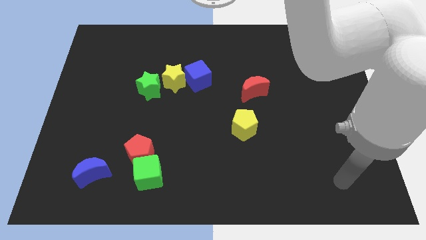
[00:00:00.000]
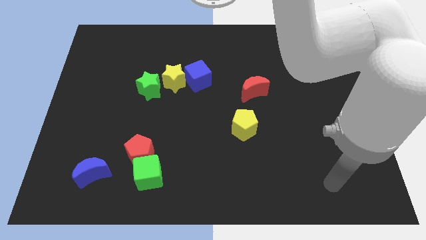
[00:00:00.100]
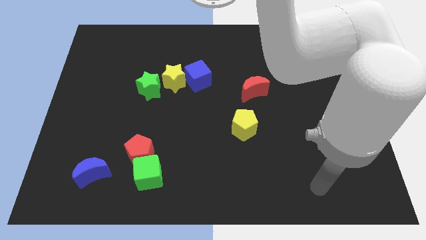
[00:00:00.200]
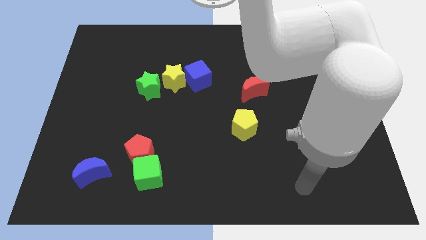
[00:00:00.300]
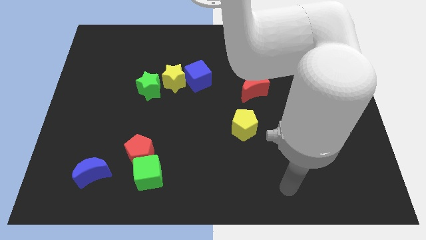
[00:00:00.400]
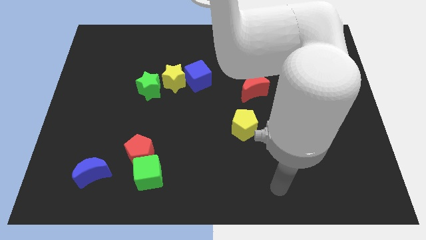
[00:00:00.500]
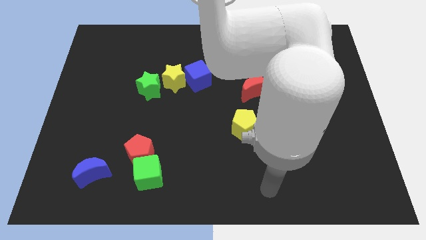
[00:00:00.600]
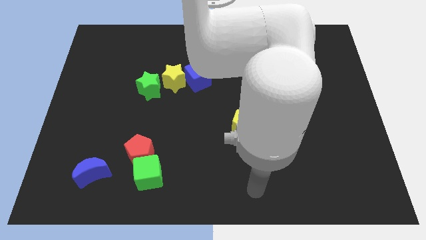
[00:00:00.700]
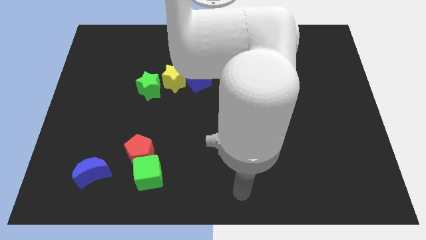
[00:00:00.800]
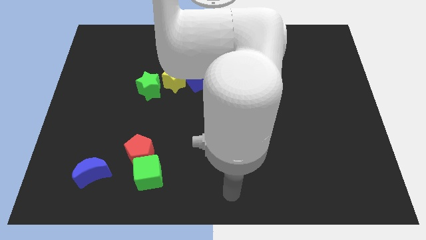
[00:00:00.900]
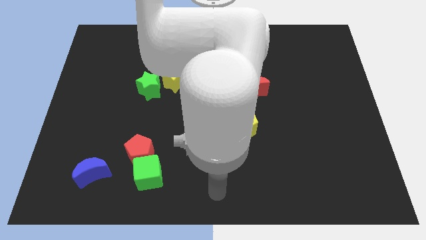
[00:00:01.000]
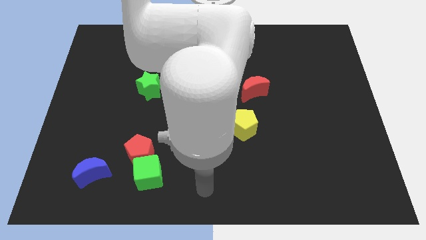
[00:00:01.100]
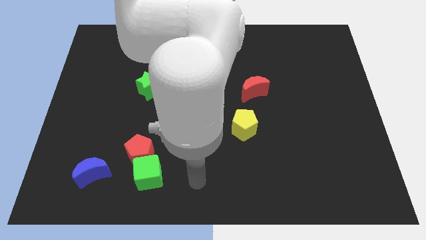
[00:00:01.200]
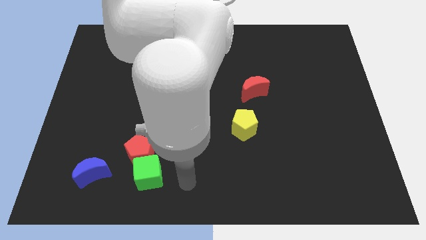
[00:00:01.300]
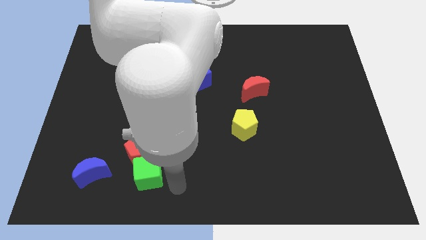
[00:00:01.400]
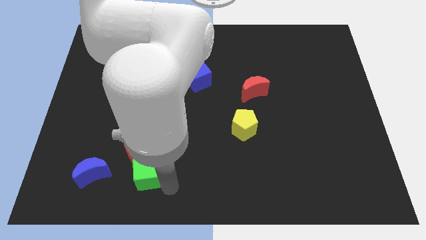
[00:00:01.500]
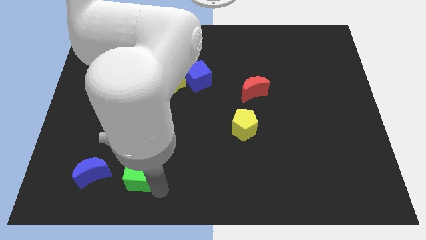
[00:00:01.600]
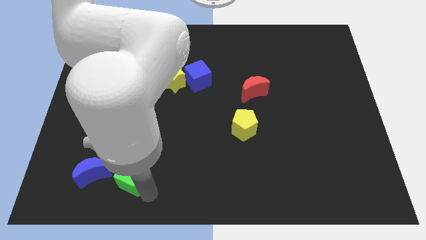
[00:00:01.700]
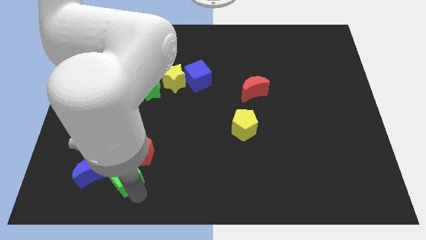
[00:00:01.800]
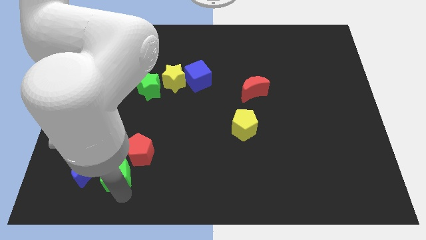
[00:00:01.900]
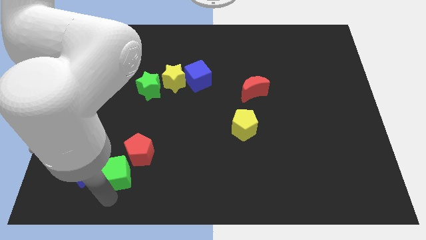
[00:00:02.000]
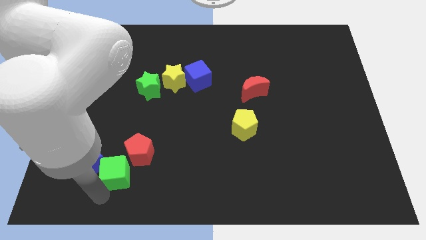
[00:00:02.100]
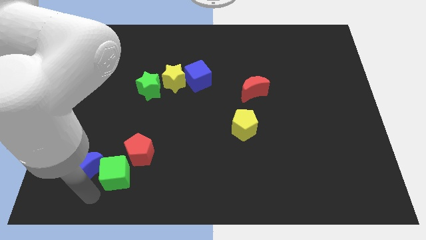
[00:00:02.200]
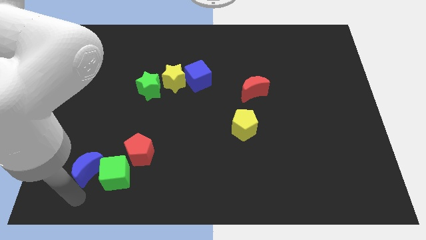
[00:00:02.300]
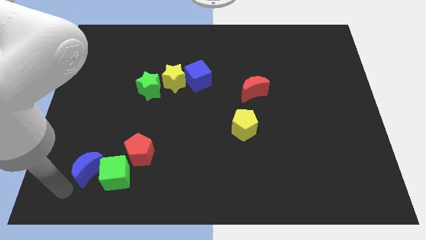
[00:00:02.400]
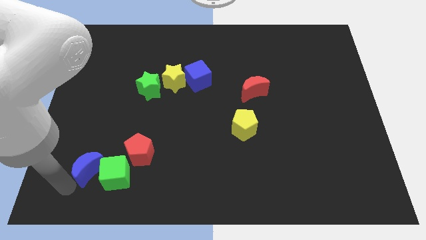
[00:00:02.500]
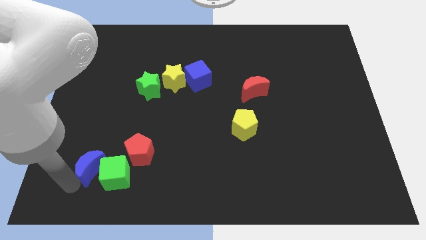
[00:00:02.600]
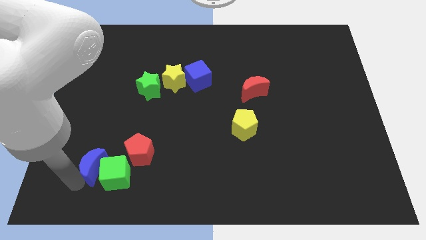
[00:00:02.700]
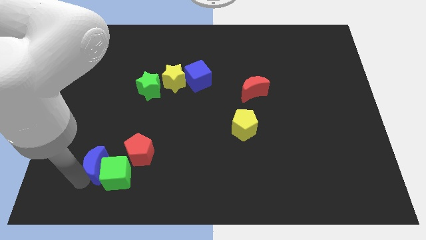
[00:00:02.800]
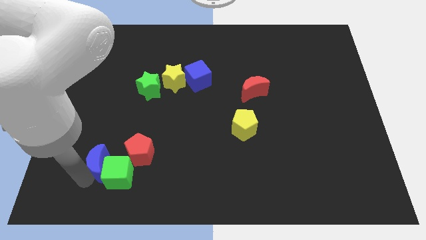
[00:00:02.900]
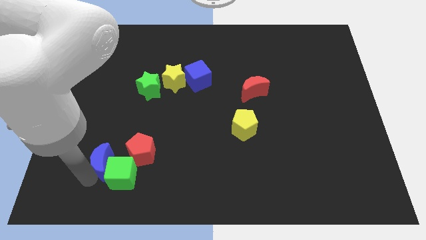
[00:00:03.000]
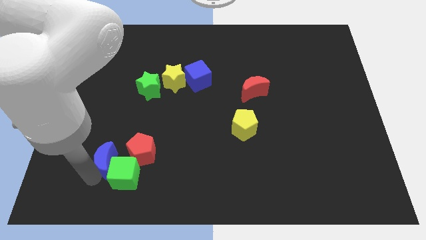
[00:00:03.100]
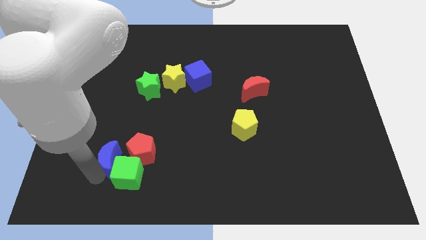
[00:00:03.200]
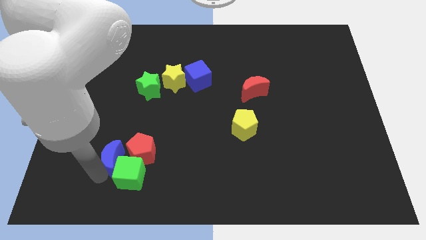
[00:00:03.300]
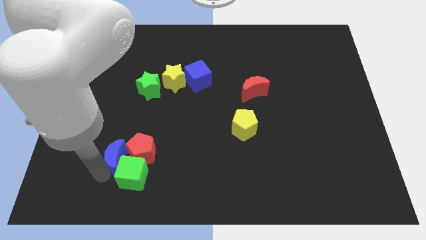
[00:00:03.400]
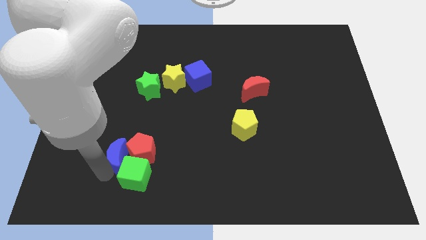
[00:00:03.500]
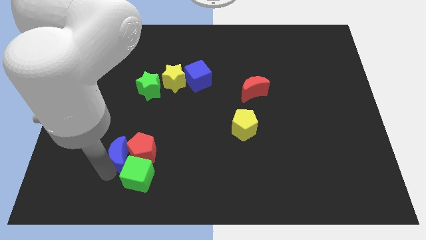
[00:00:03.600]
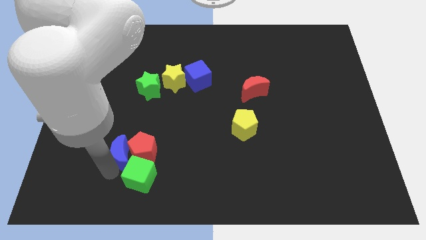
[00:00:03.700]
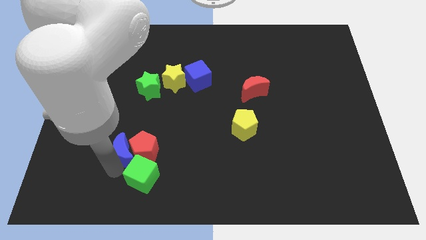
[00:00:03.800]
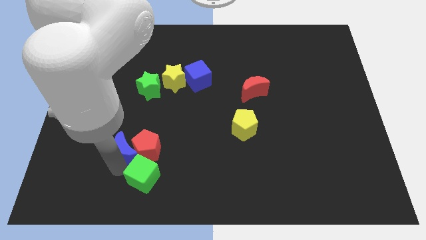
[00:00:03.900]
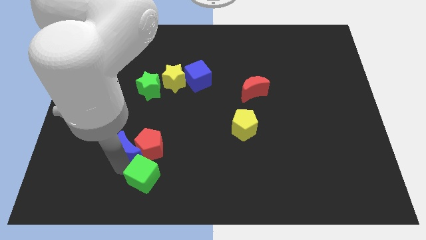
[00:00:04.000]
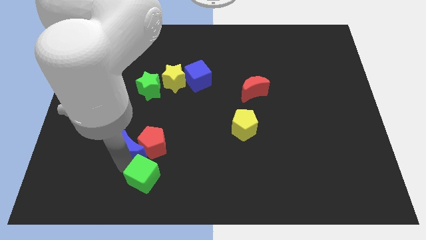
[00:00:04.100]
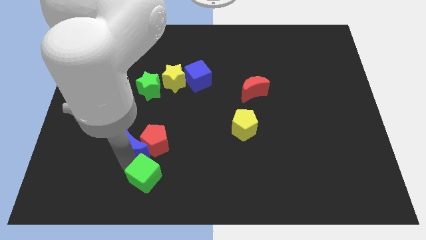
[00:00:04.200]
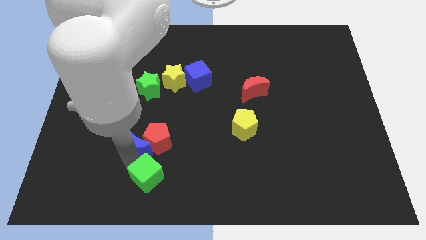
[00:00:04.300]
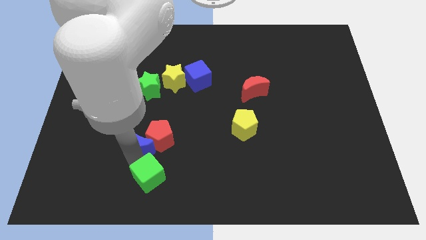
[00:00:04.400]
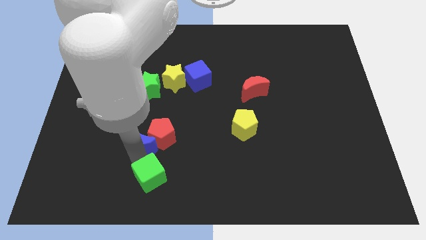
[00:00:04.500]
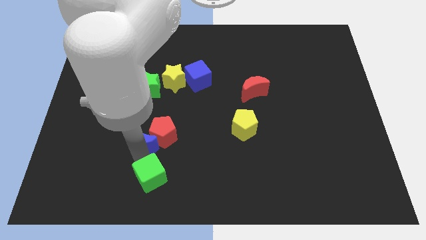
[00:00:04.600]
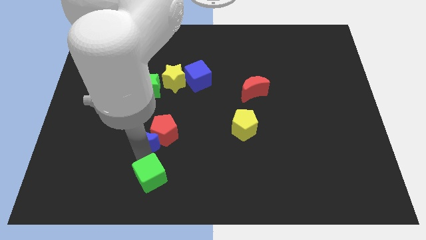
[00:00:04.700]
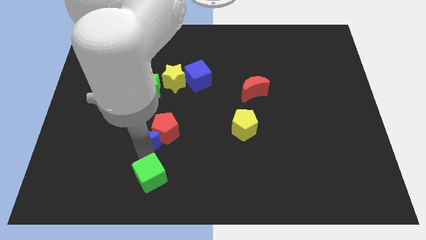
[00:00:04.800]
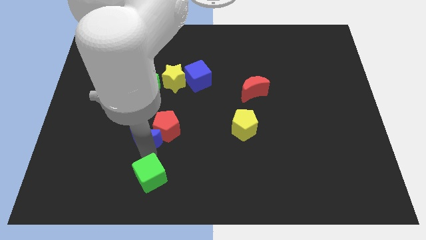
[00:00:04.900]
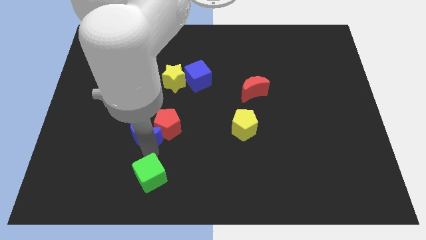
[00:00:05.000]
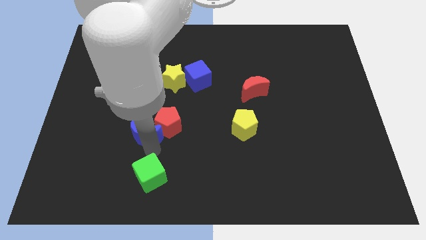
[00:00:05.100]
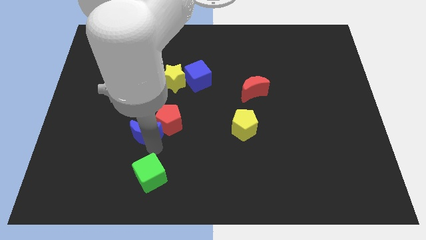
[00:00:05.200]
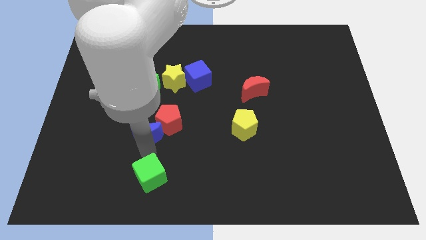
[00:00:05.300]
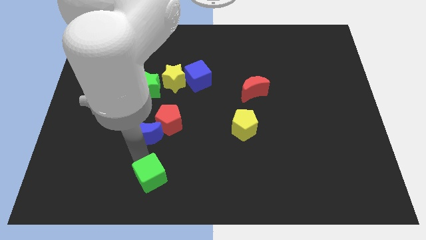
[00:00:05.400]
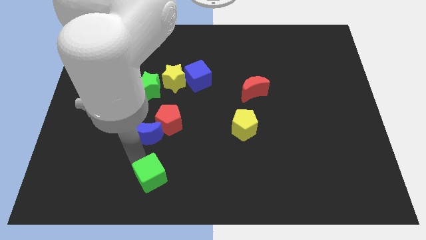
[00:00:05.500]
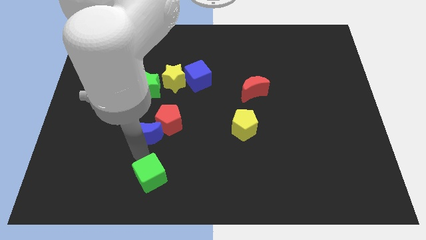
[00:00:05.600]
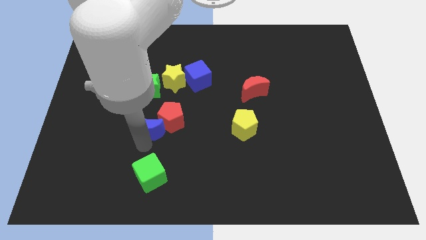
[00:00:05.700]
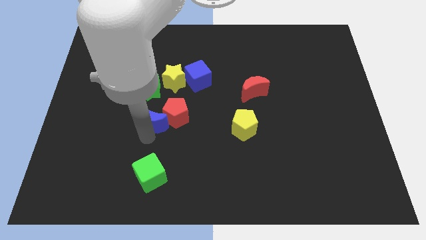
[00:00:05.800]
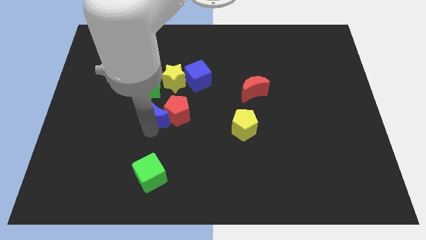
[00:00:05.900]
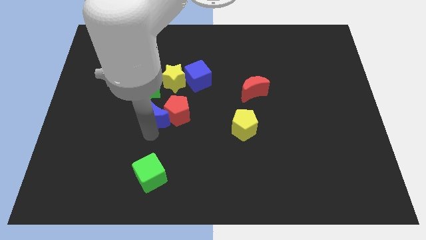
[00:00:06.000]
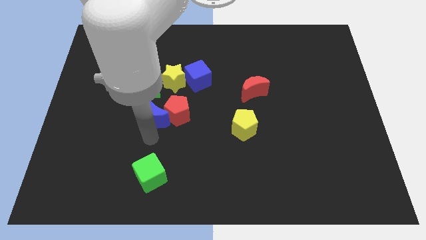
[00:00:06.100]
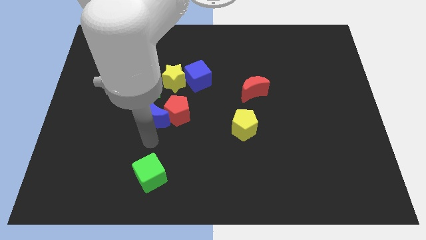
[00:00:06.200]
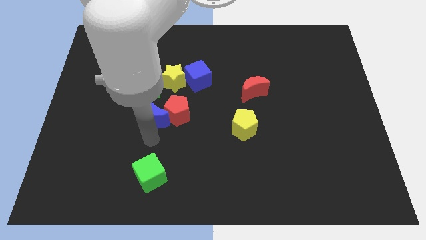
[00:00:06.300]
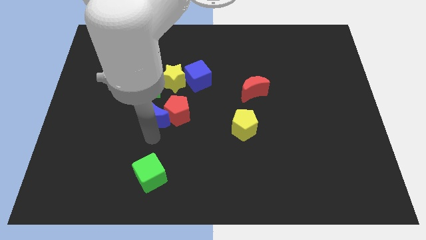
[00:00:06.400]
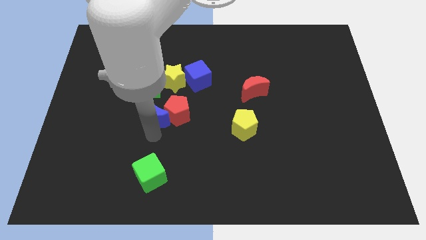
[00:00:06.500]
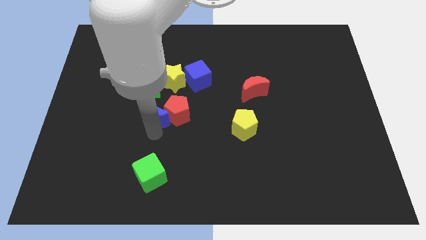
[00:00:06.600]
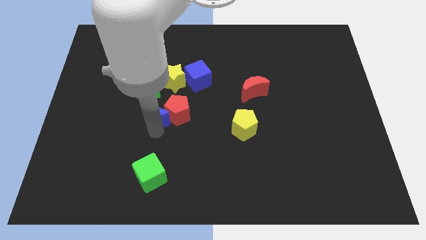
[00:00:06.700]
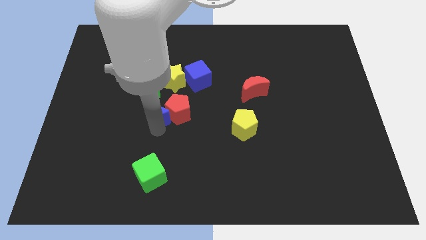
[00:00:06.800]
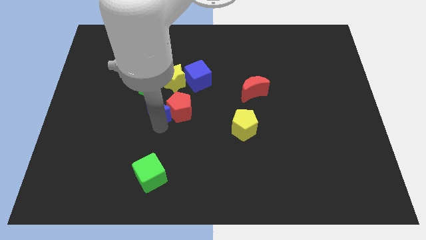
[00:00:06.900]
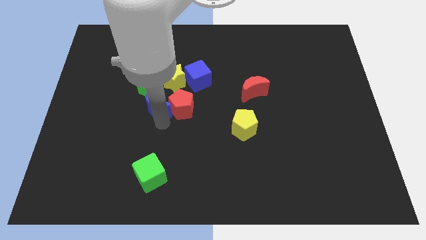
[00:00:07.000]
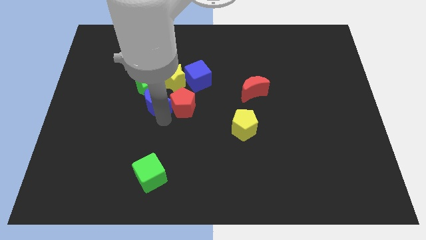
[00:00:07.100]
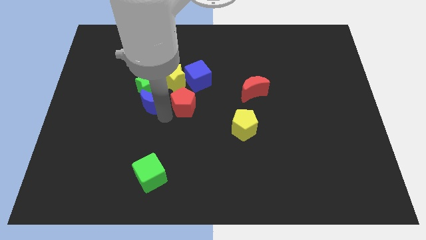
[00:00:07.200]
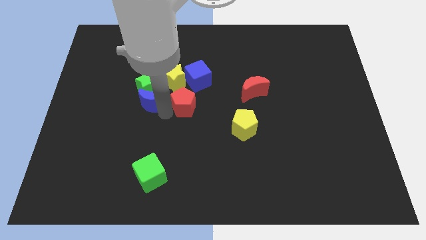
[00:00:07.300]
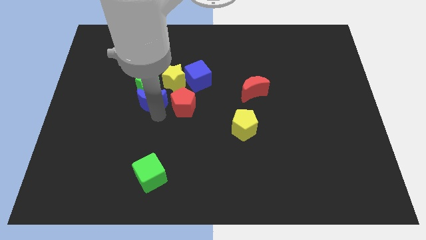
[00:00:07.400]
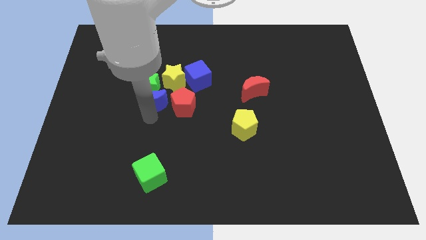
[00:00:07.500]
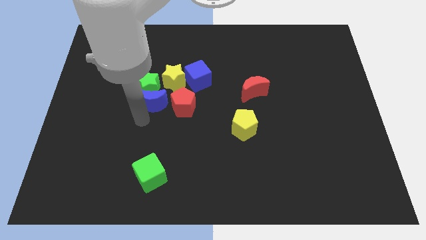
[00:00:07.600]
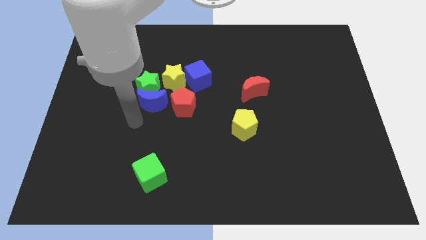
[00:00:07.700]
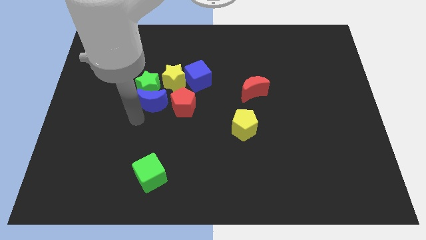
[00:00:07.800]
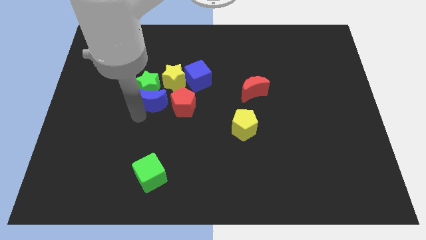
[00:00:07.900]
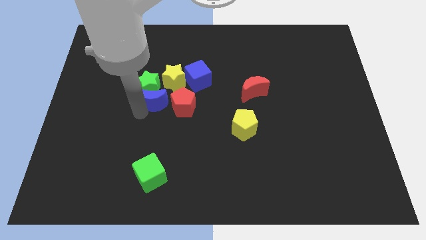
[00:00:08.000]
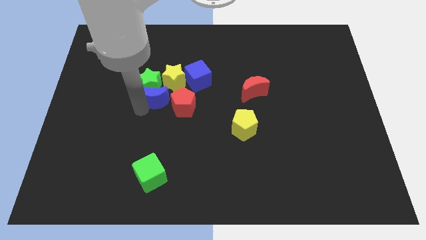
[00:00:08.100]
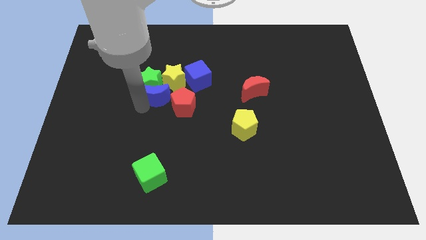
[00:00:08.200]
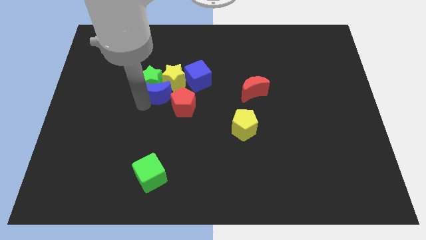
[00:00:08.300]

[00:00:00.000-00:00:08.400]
push the blue moon towards the yellow star
